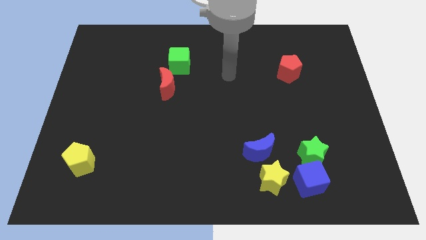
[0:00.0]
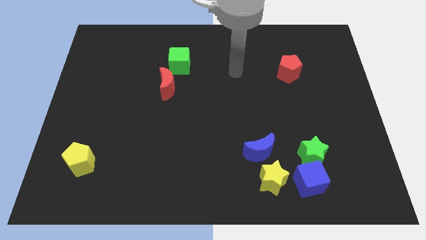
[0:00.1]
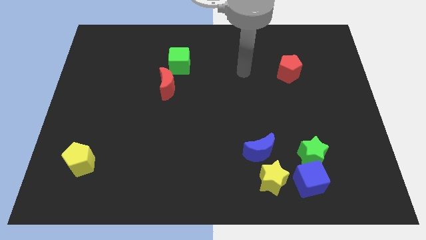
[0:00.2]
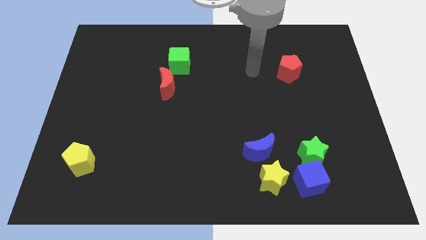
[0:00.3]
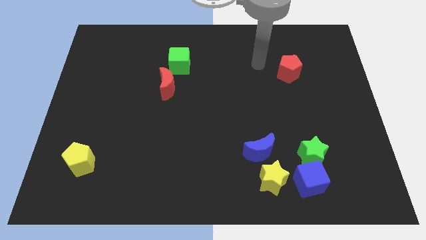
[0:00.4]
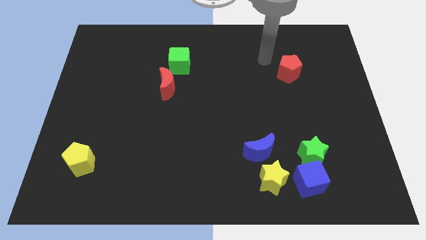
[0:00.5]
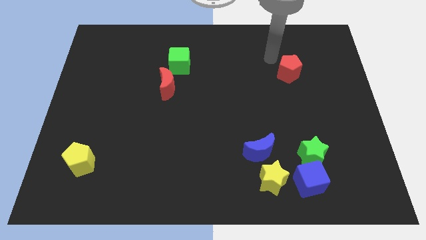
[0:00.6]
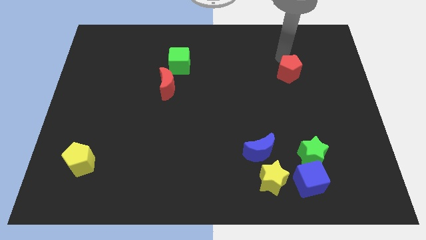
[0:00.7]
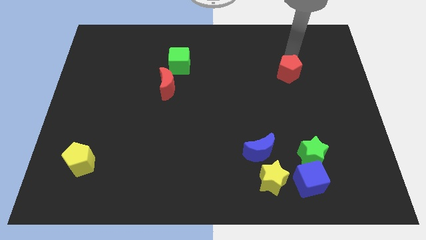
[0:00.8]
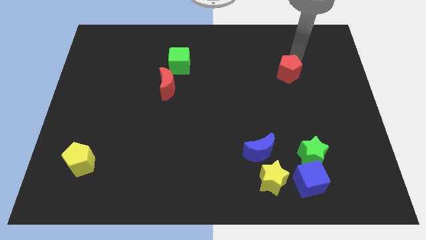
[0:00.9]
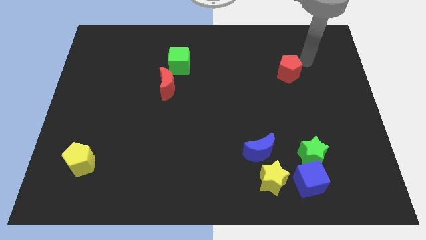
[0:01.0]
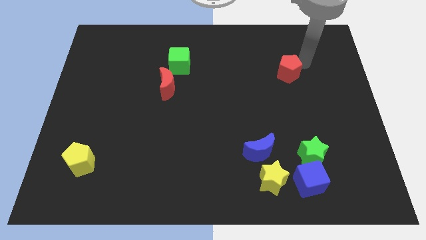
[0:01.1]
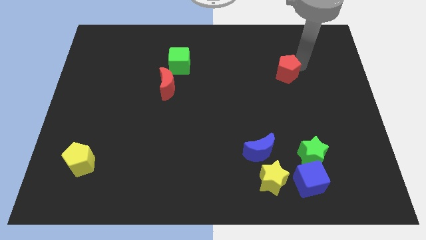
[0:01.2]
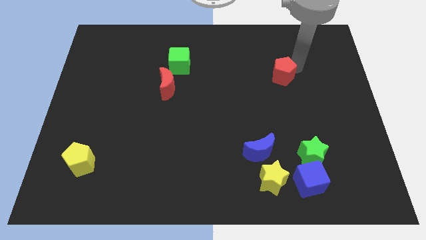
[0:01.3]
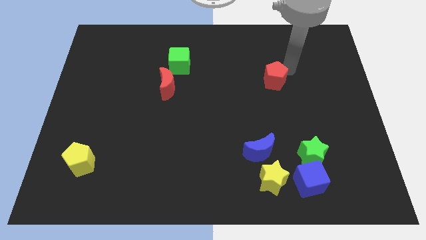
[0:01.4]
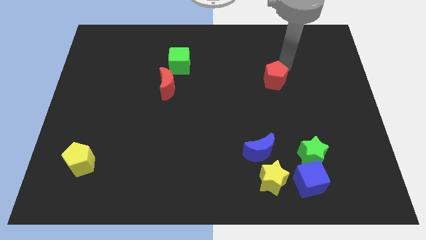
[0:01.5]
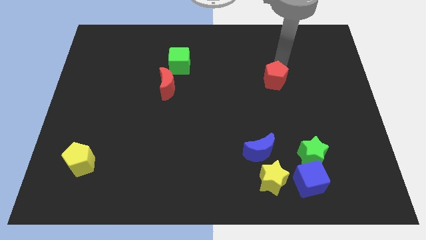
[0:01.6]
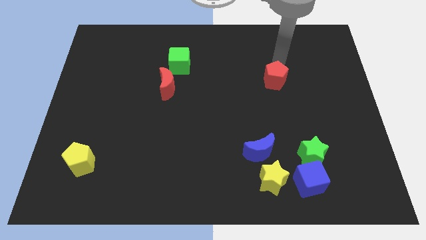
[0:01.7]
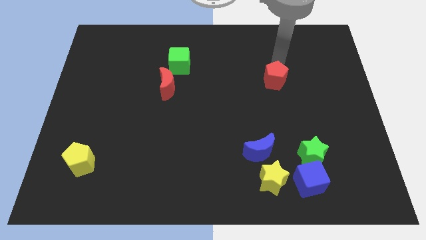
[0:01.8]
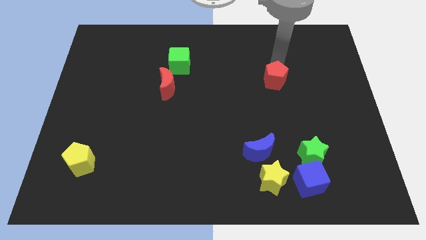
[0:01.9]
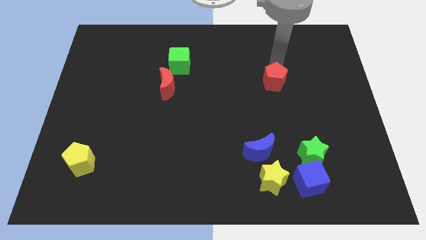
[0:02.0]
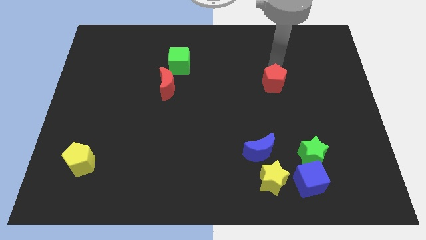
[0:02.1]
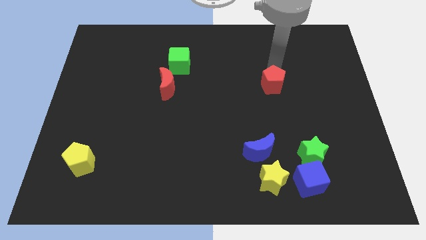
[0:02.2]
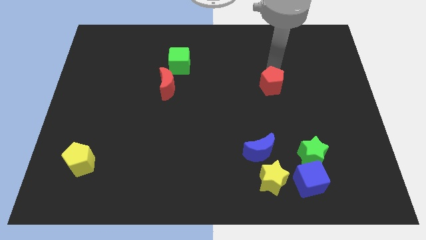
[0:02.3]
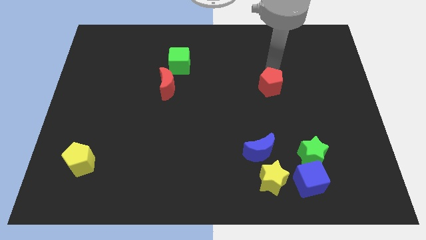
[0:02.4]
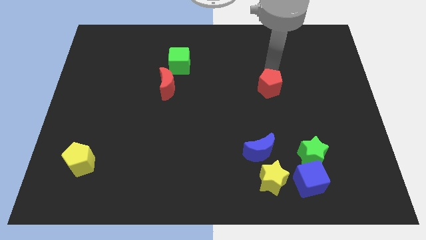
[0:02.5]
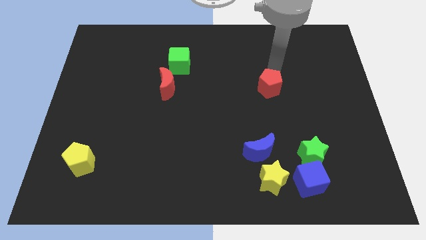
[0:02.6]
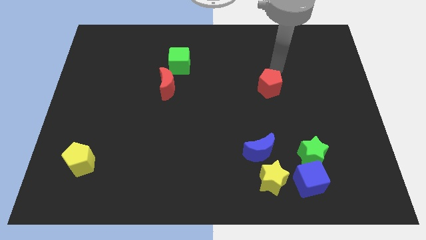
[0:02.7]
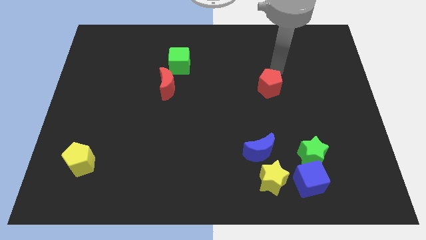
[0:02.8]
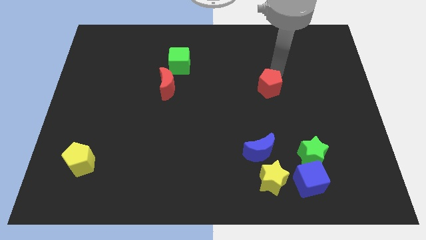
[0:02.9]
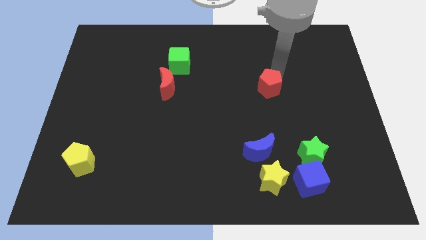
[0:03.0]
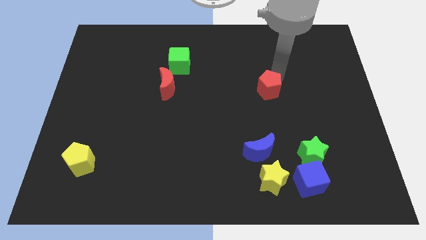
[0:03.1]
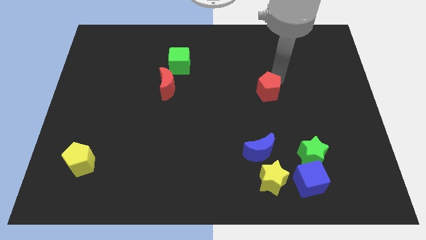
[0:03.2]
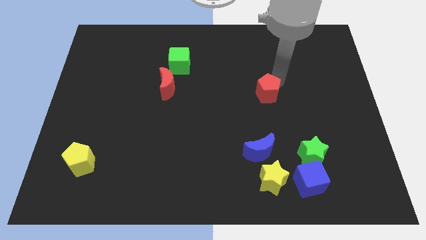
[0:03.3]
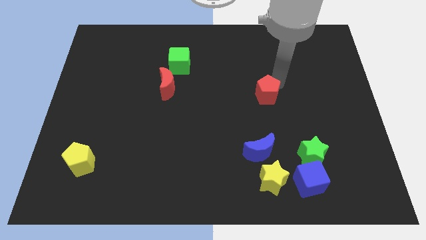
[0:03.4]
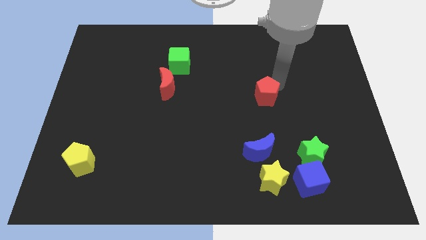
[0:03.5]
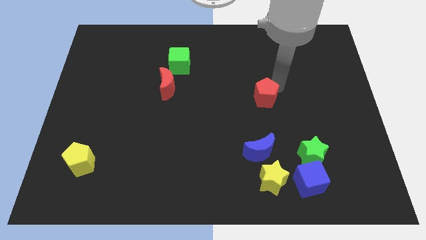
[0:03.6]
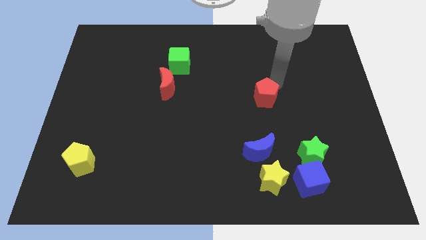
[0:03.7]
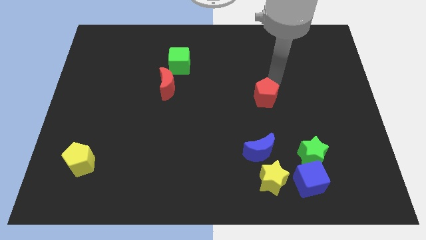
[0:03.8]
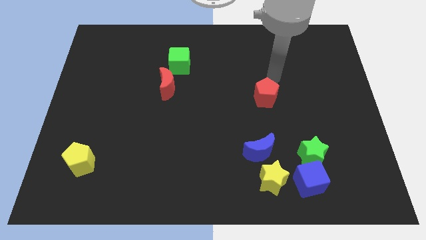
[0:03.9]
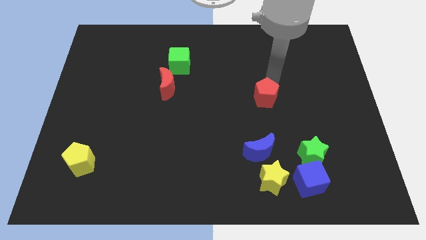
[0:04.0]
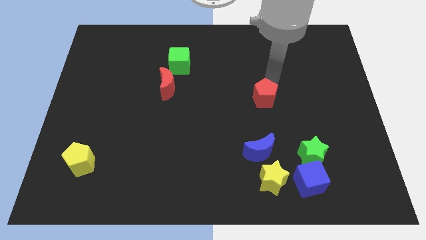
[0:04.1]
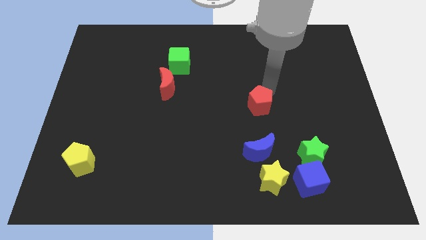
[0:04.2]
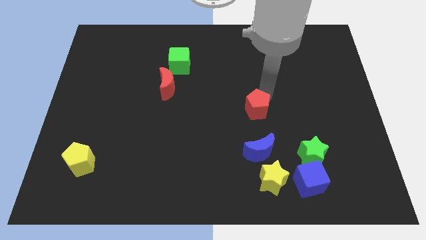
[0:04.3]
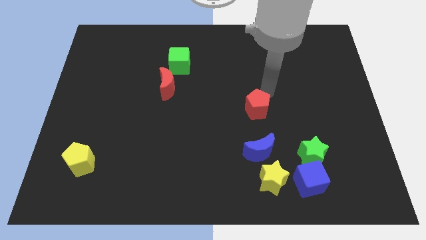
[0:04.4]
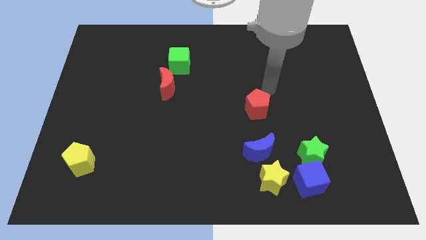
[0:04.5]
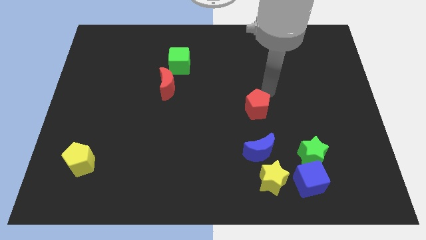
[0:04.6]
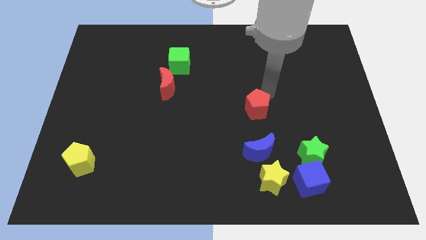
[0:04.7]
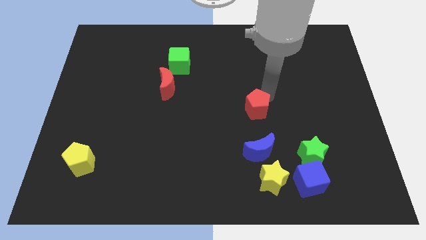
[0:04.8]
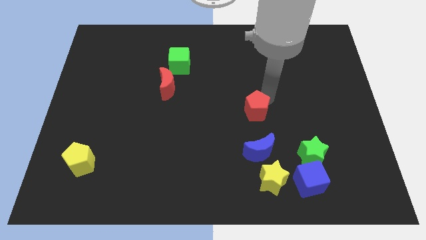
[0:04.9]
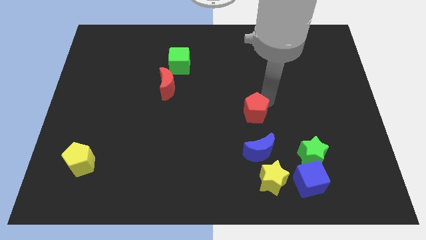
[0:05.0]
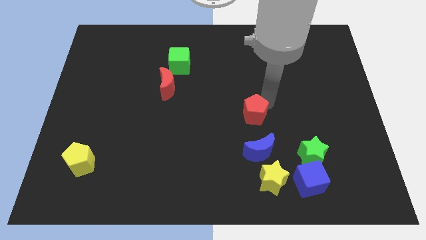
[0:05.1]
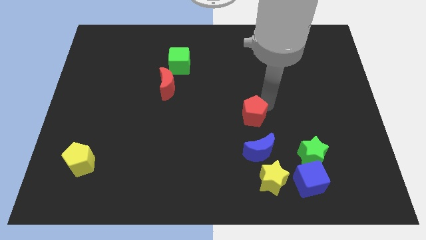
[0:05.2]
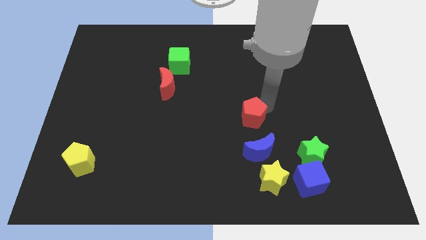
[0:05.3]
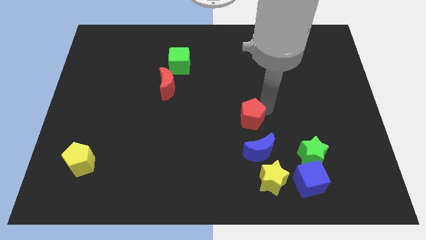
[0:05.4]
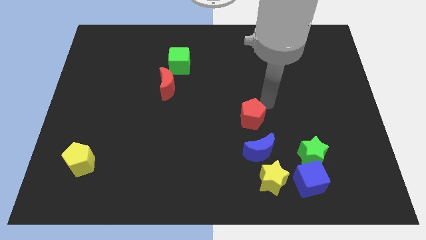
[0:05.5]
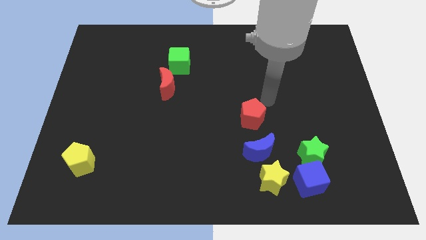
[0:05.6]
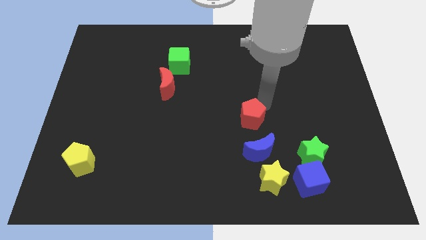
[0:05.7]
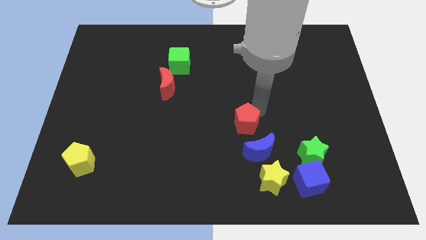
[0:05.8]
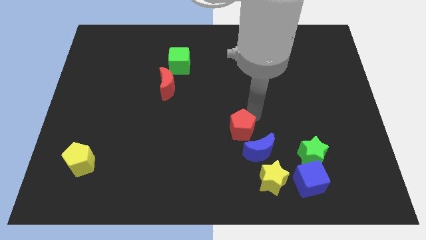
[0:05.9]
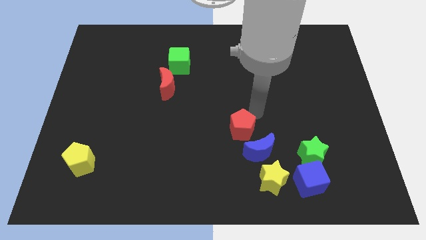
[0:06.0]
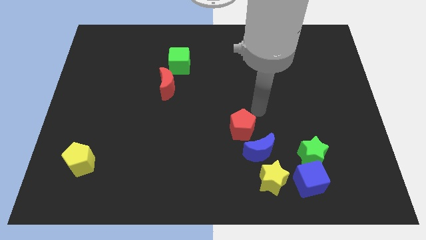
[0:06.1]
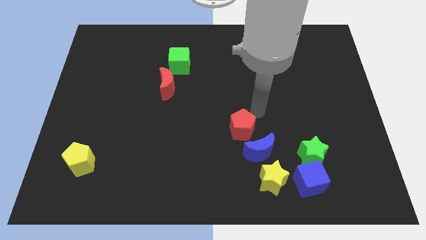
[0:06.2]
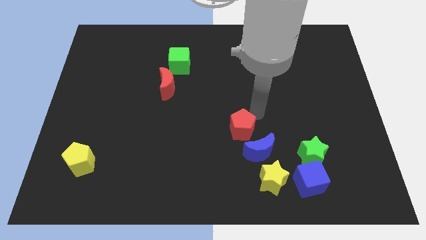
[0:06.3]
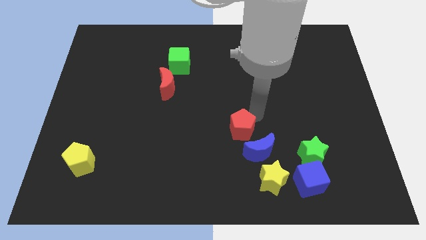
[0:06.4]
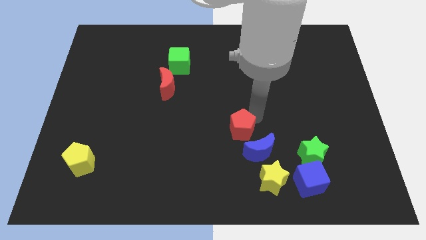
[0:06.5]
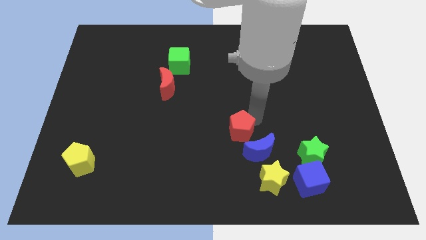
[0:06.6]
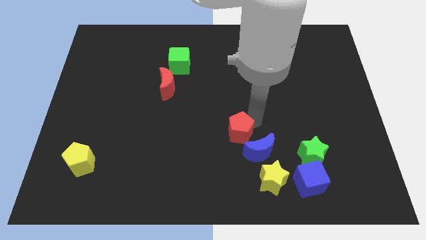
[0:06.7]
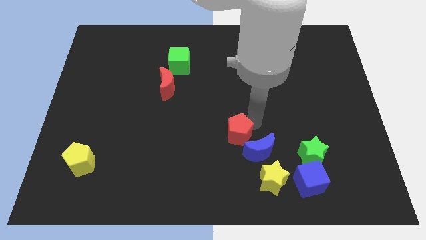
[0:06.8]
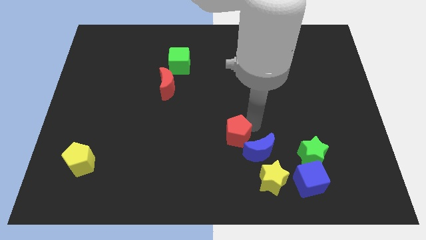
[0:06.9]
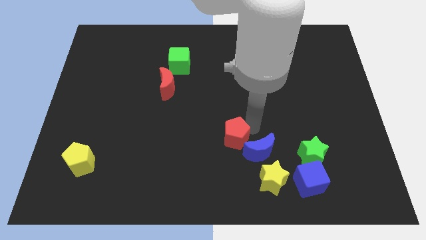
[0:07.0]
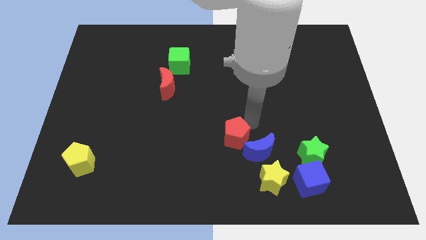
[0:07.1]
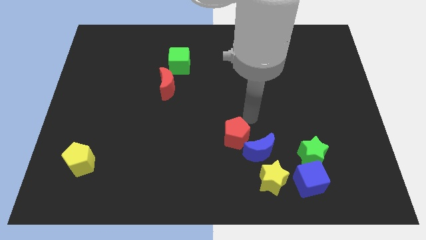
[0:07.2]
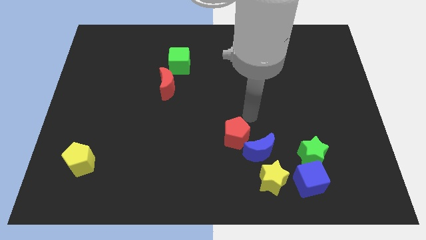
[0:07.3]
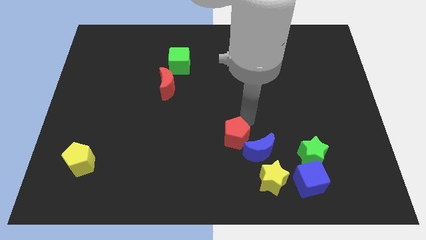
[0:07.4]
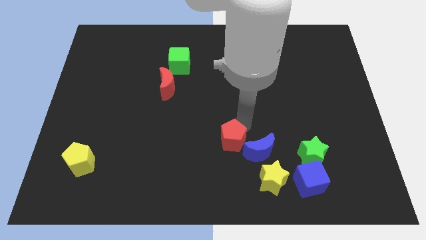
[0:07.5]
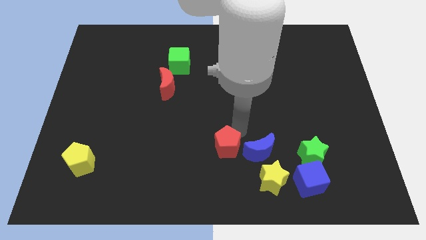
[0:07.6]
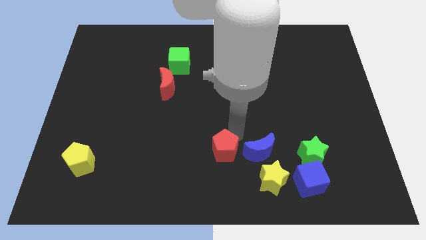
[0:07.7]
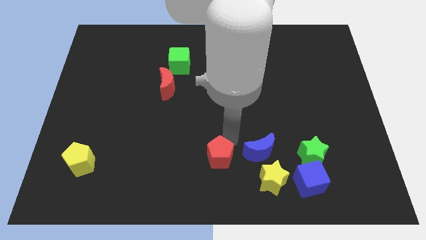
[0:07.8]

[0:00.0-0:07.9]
push the red pentagon to the bottom
